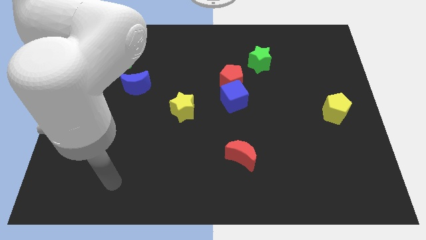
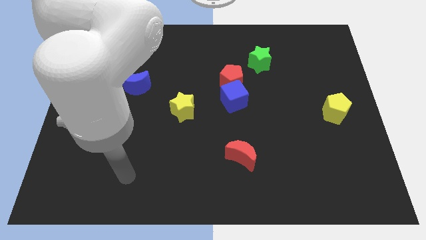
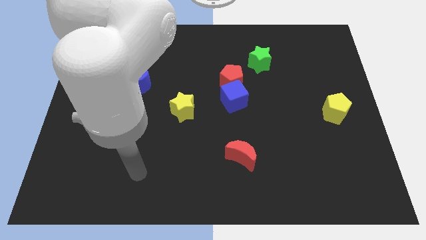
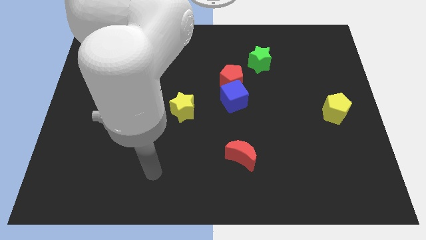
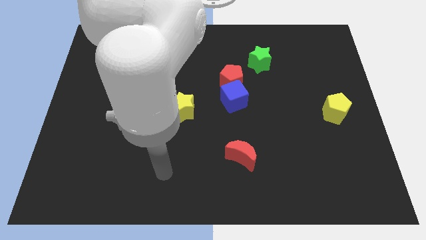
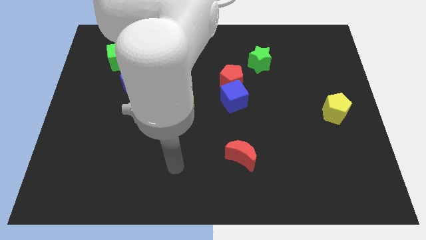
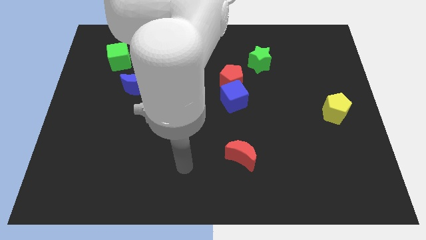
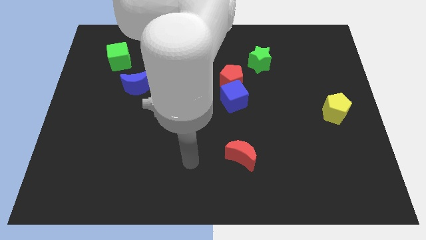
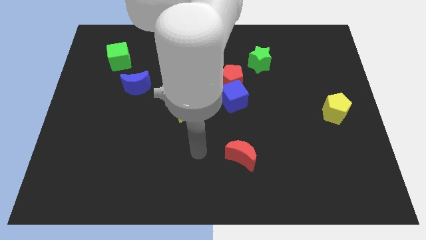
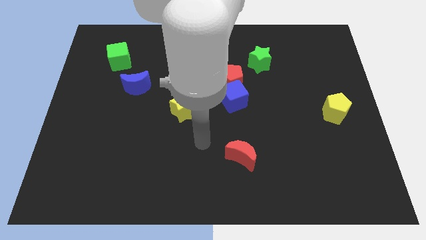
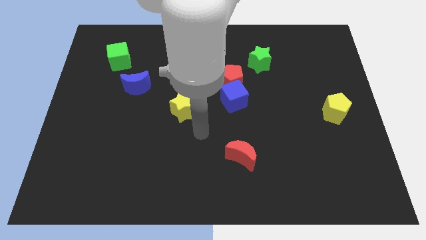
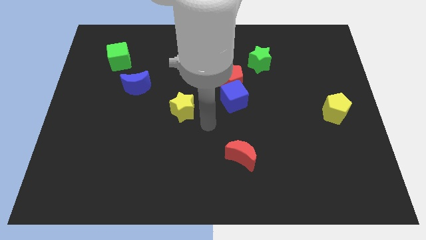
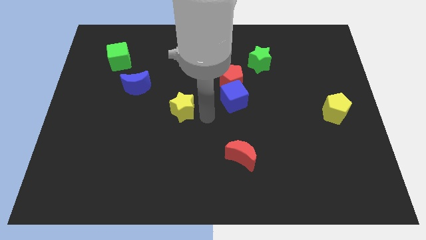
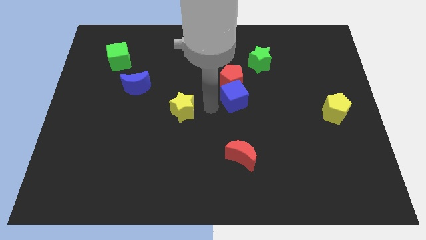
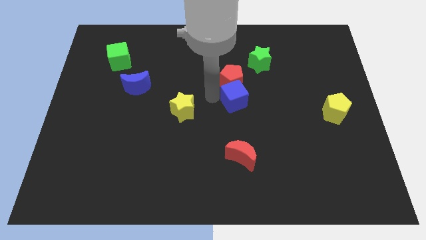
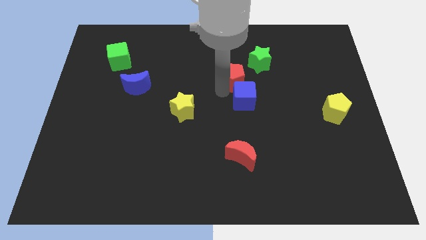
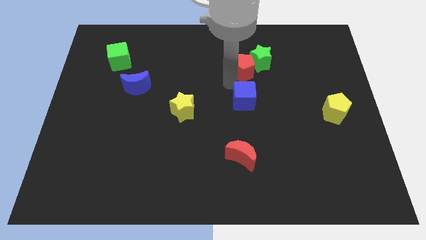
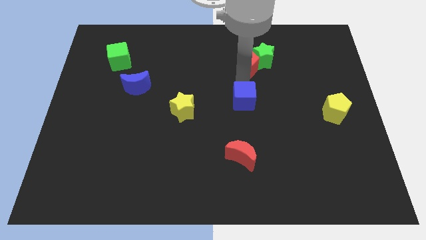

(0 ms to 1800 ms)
separate the blue cube from the red pentagon

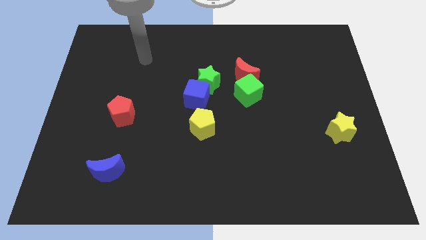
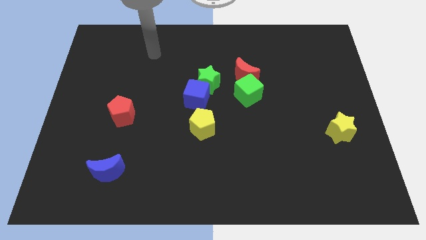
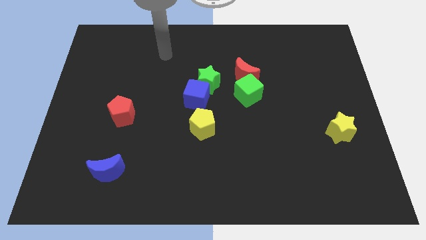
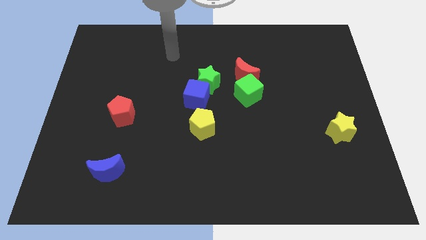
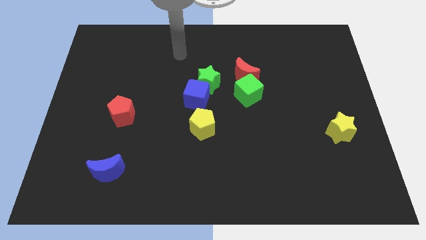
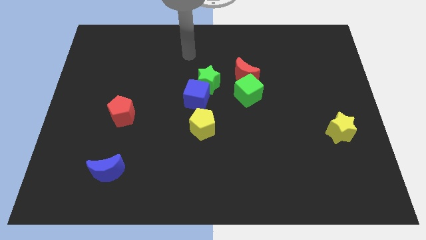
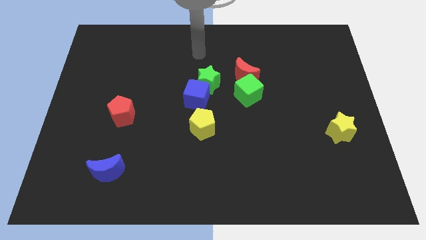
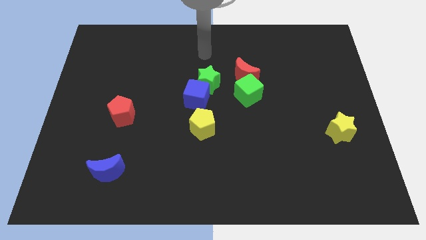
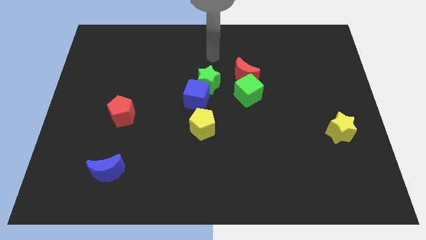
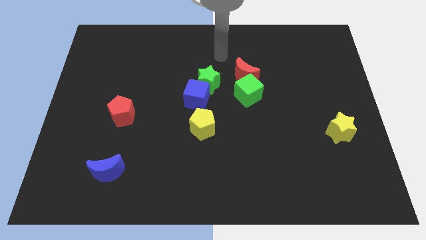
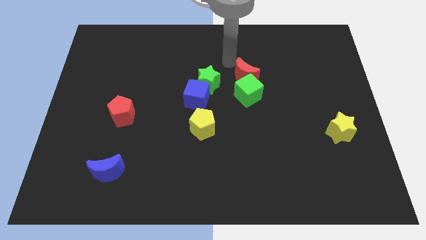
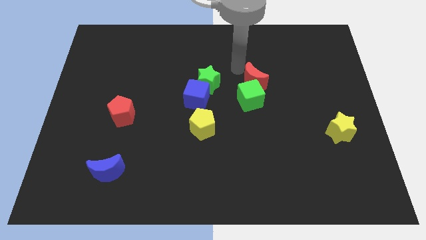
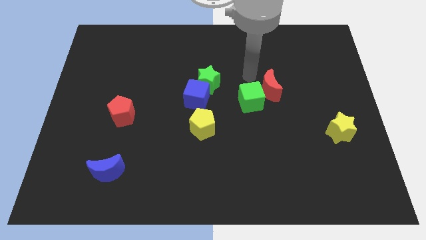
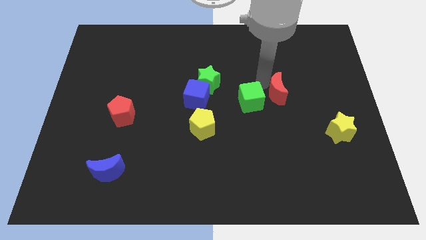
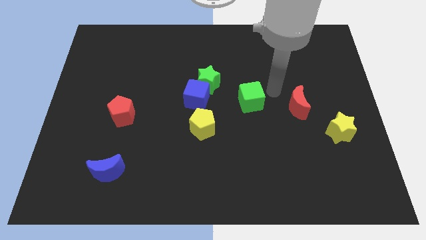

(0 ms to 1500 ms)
separate the green cube from the red moon

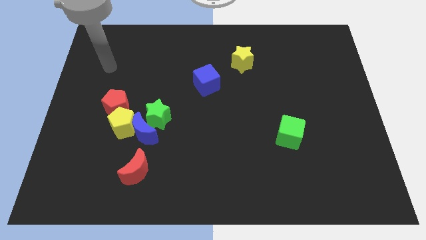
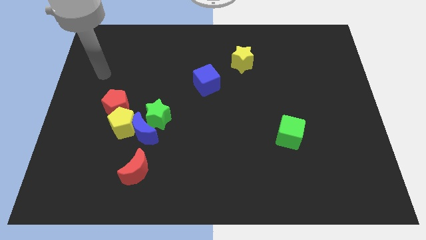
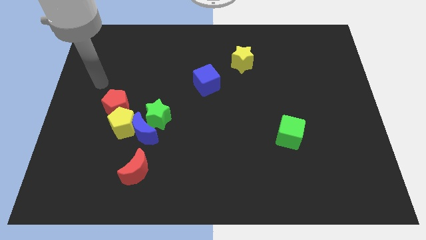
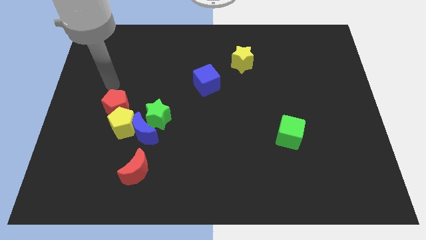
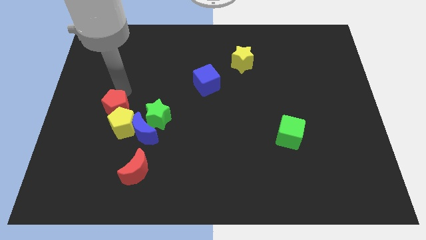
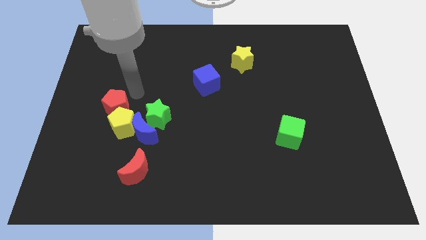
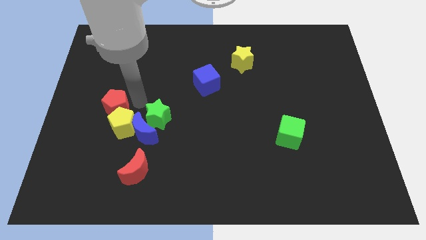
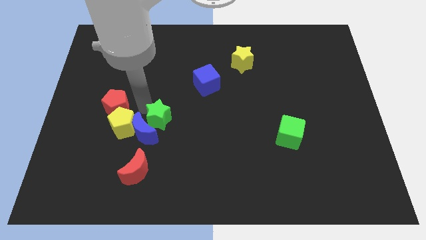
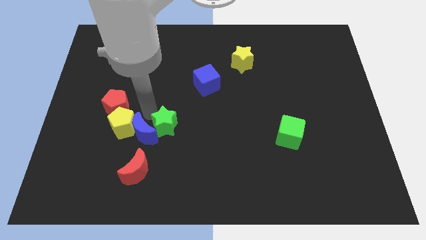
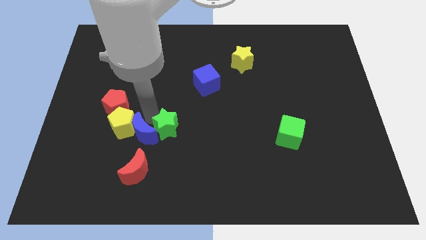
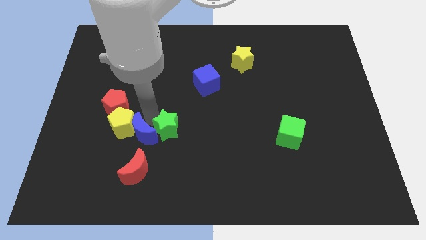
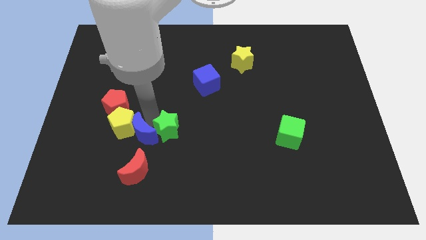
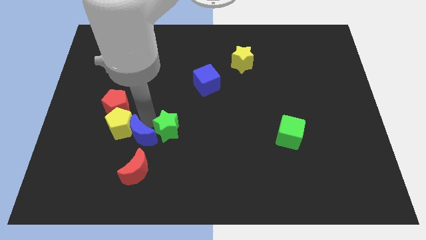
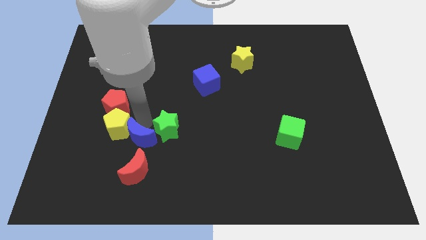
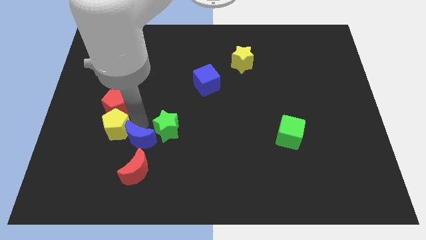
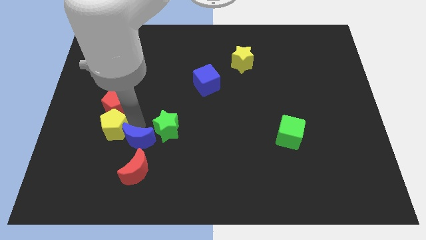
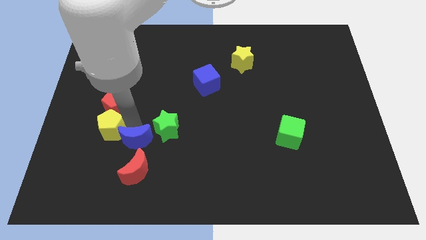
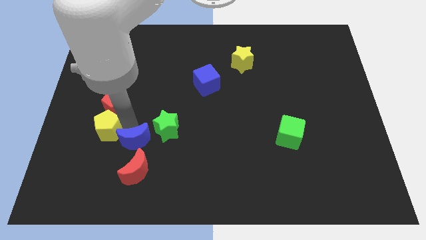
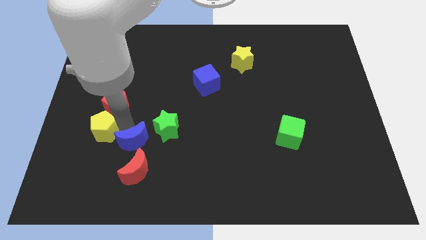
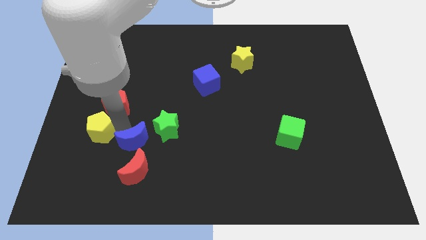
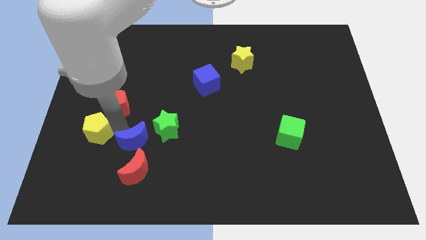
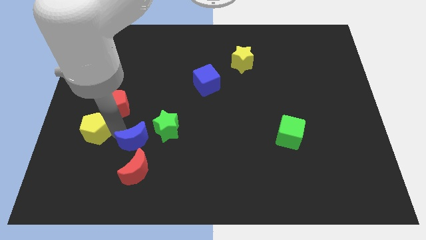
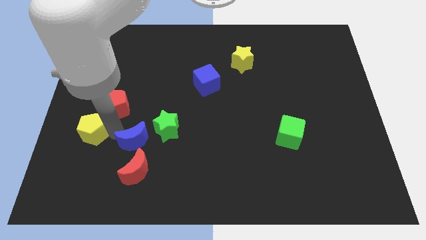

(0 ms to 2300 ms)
separate the yellow pentagon from the blue moon, red pentagon, and green star

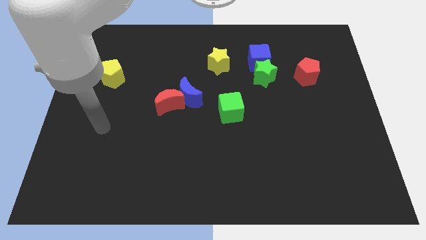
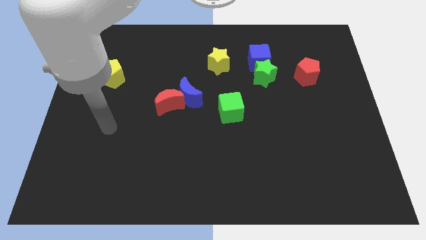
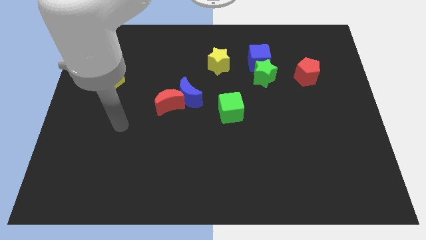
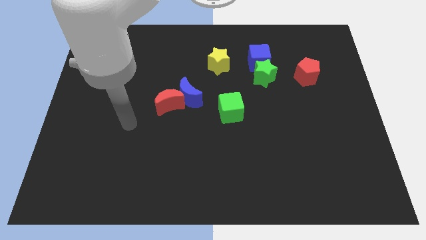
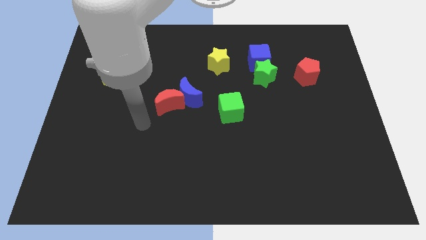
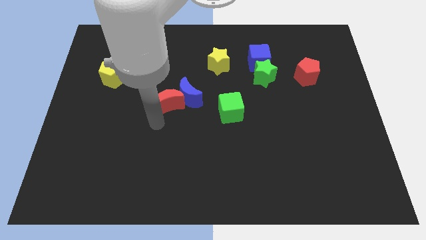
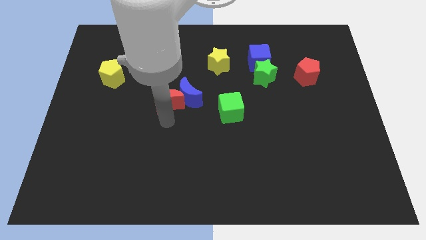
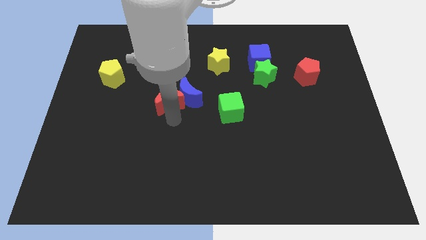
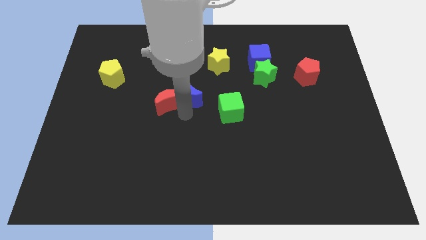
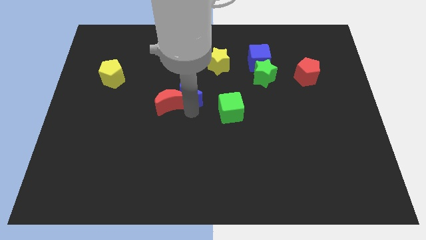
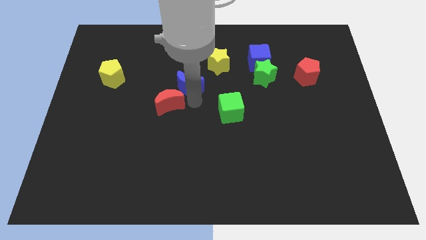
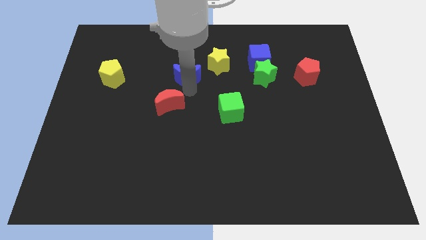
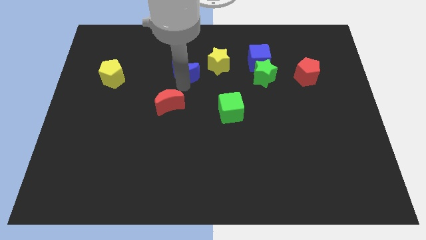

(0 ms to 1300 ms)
separate the red moon from the blue moon

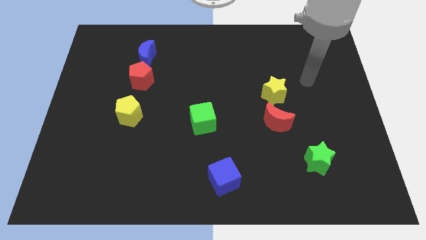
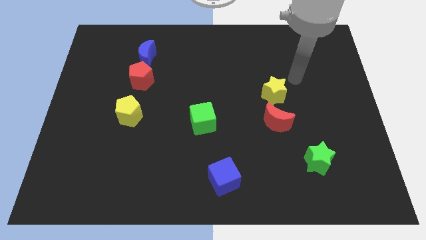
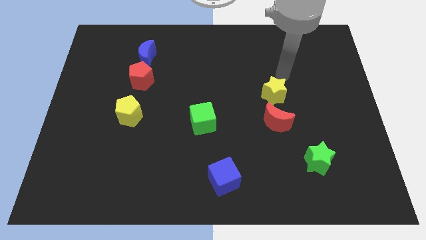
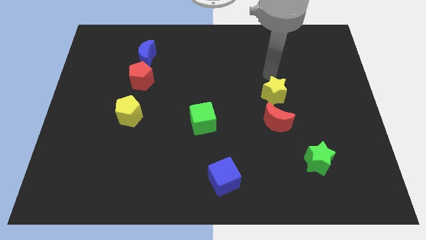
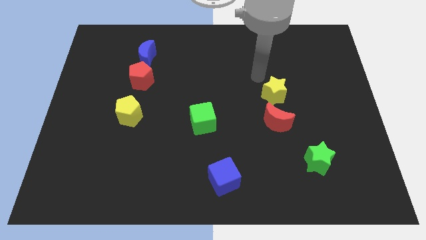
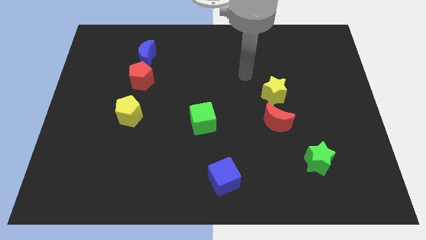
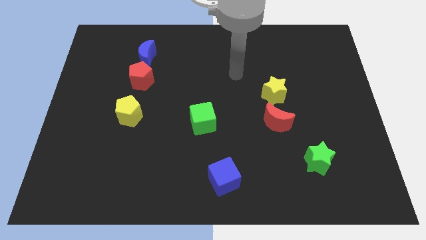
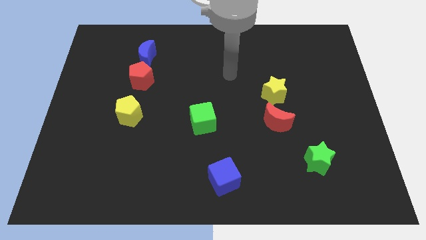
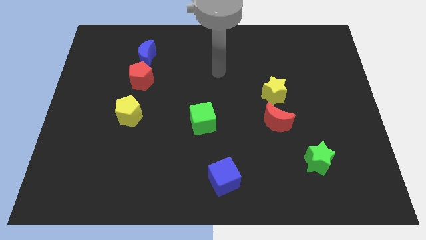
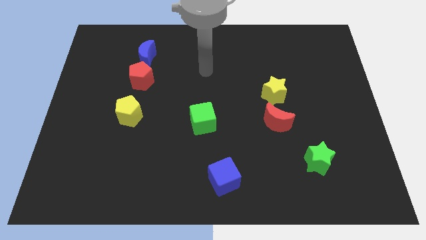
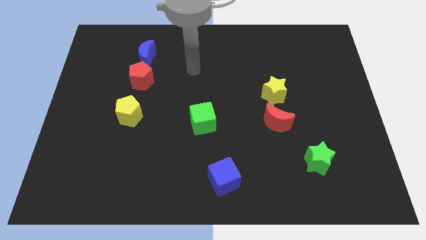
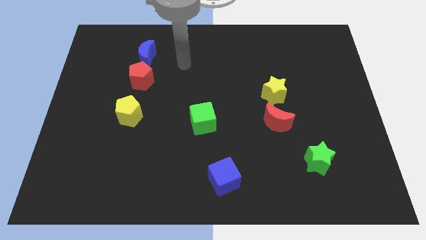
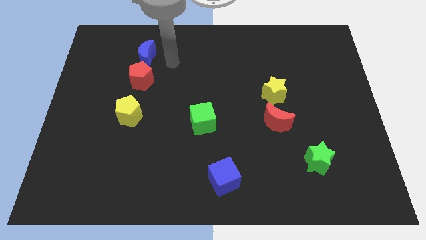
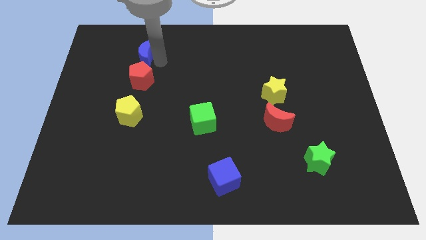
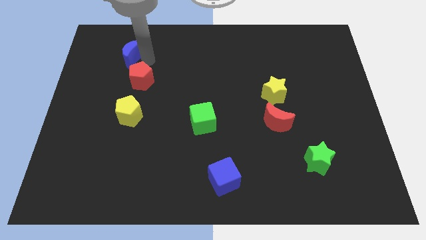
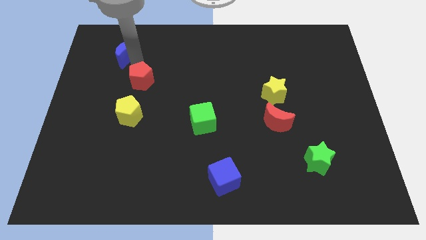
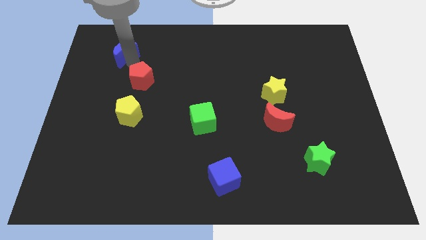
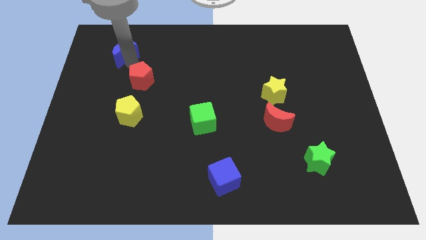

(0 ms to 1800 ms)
move the red pentagon away from the blue moon

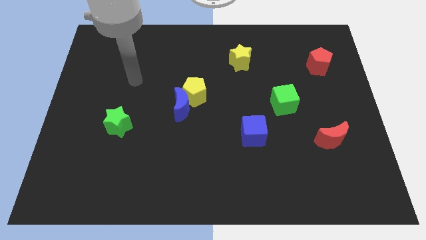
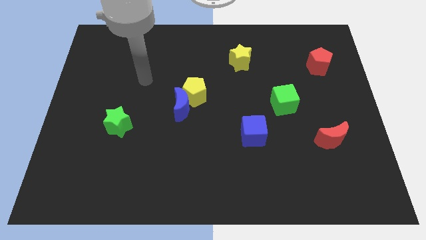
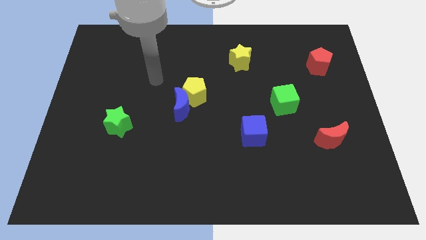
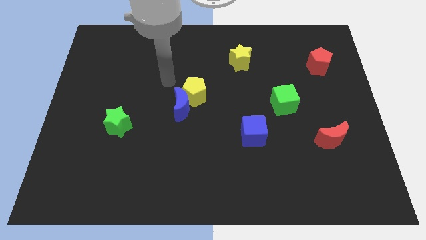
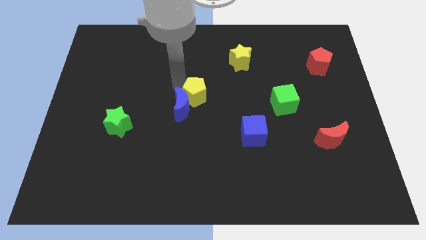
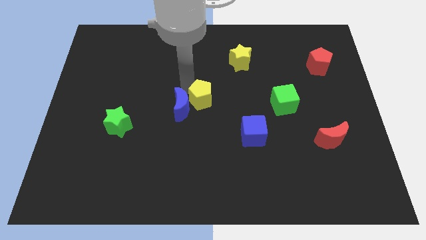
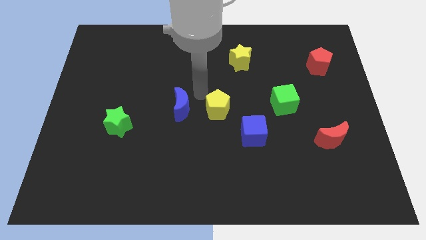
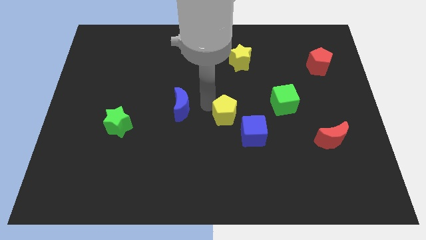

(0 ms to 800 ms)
separate the blue moon from the yellow pentagon
